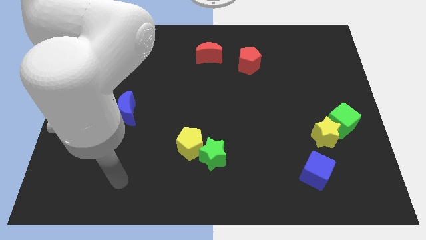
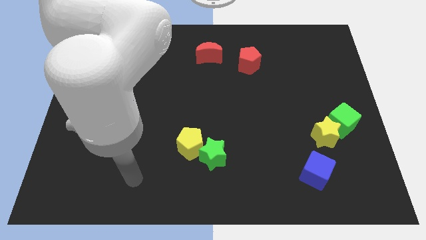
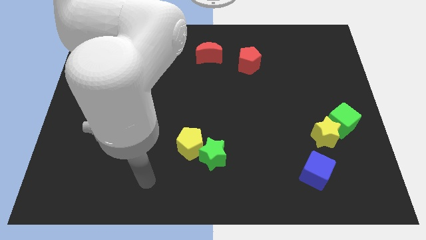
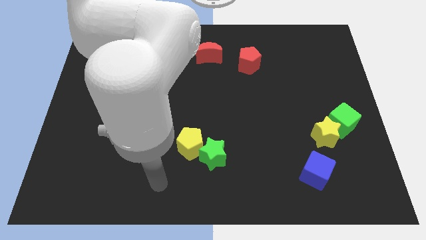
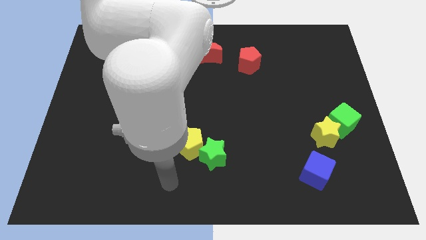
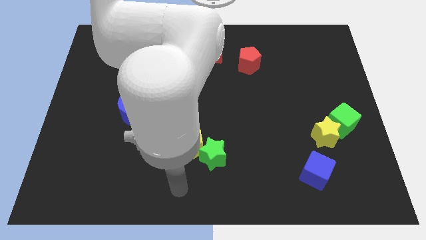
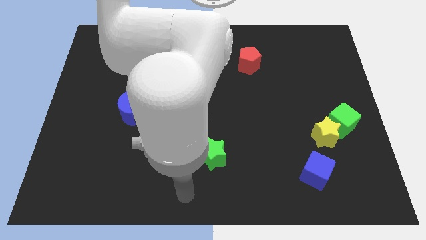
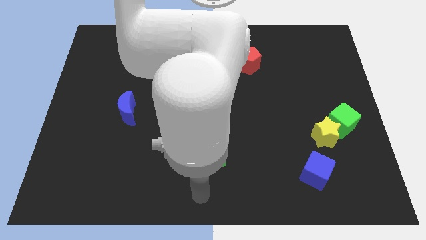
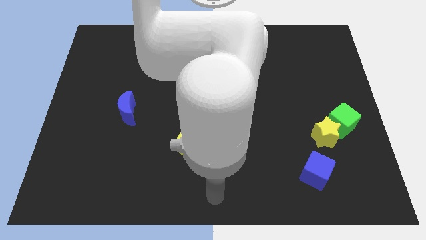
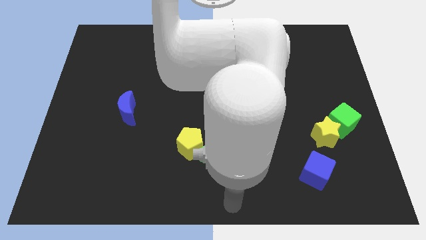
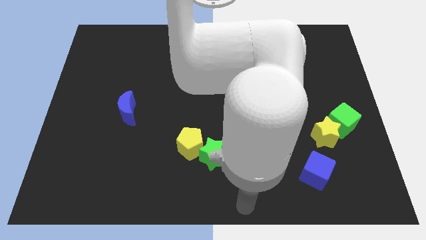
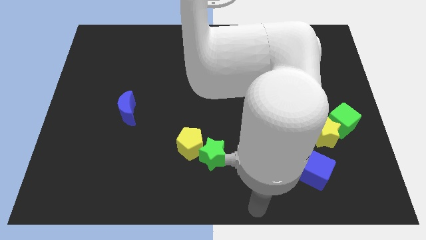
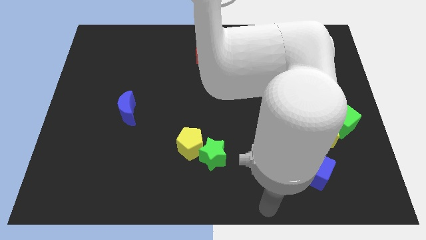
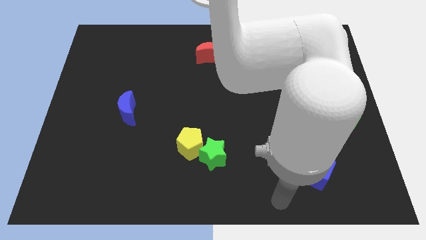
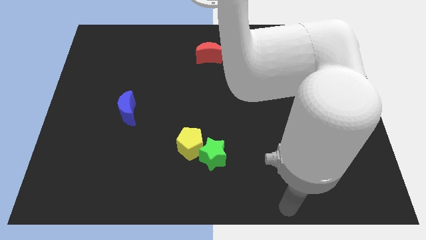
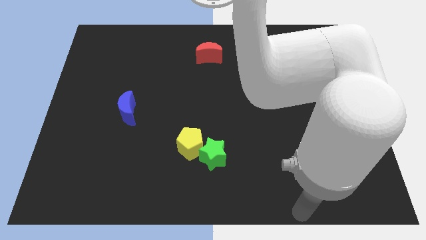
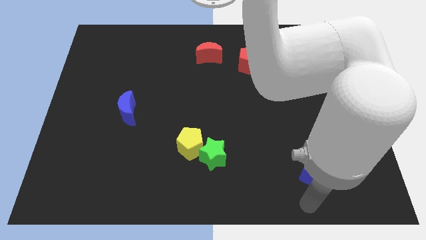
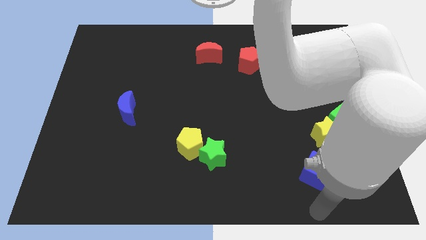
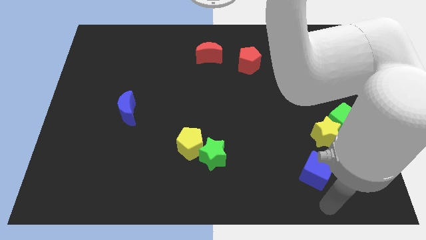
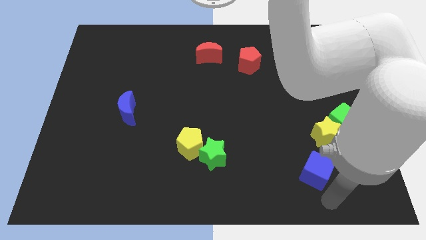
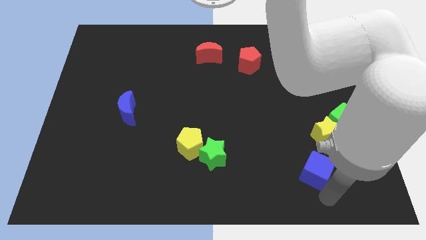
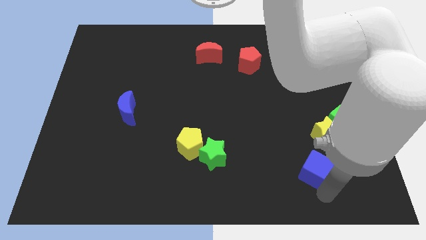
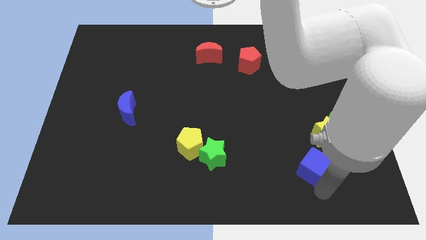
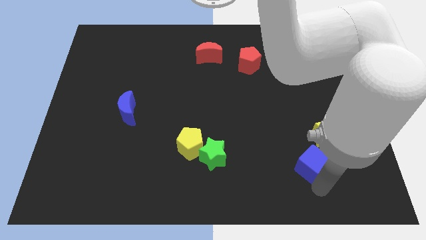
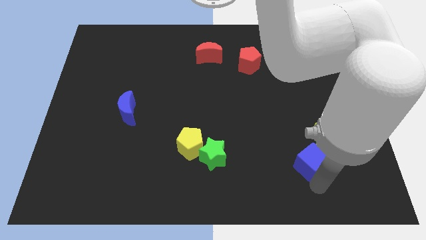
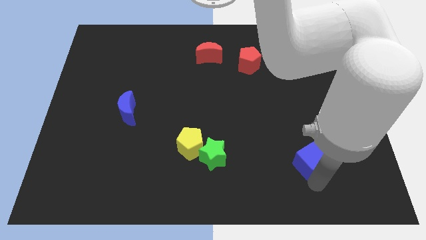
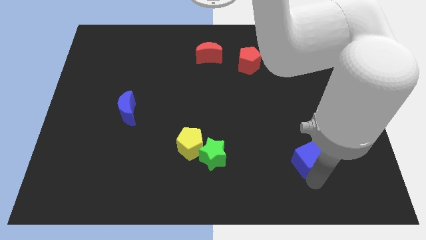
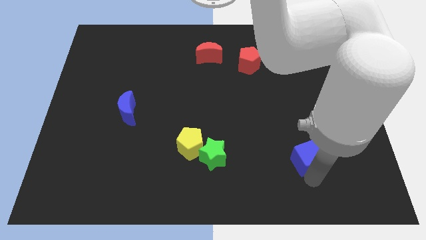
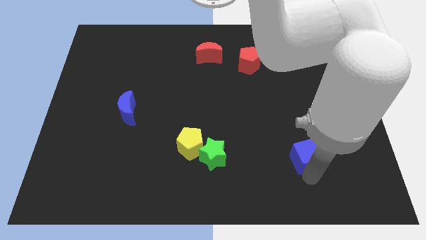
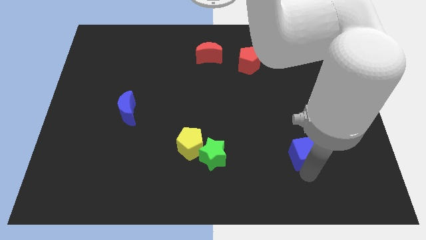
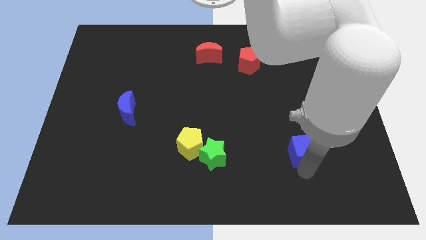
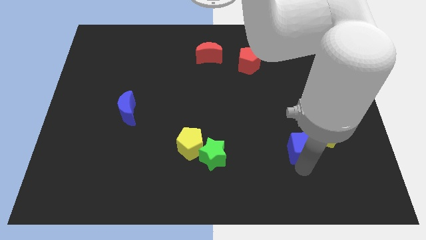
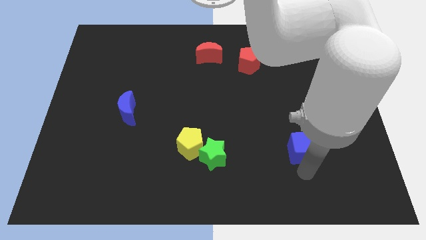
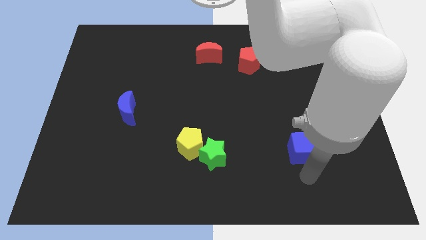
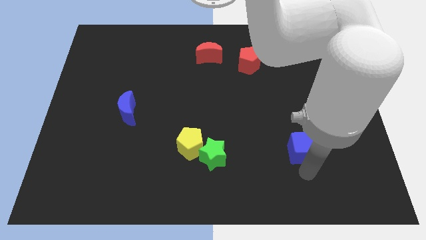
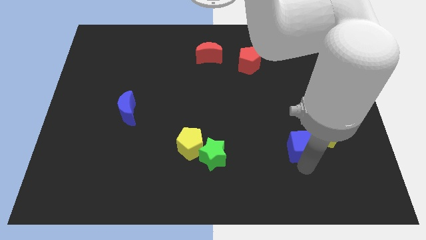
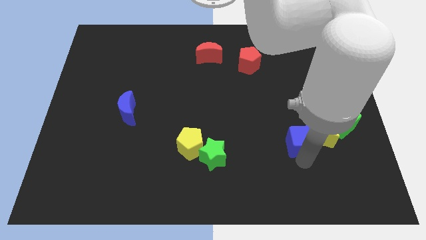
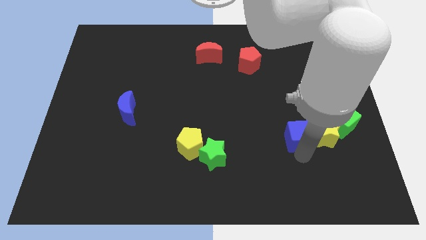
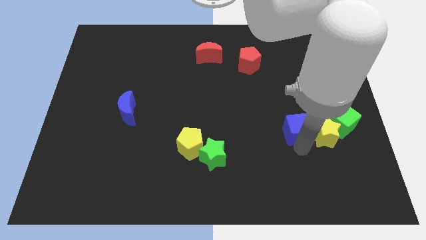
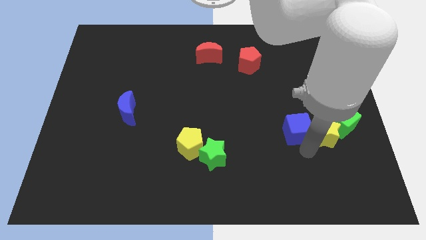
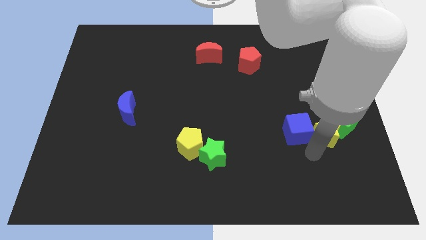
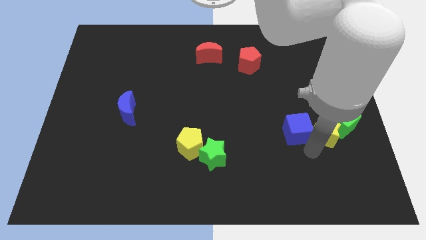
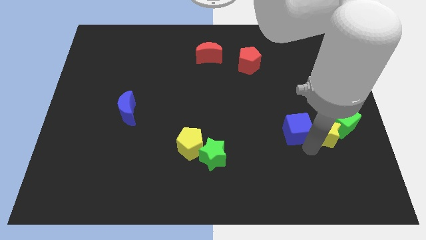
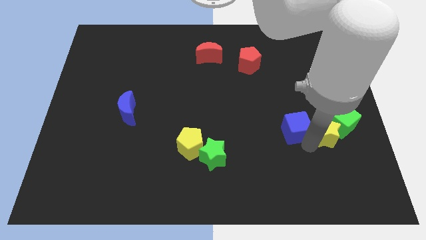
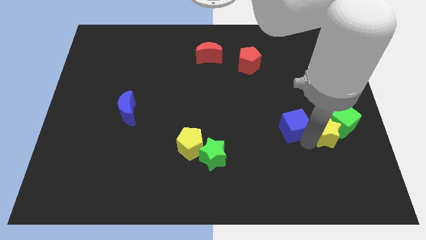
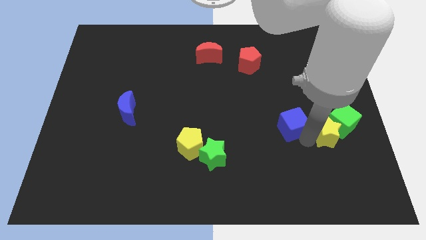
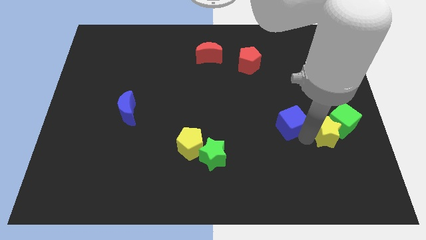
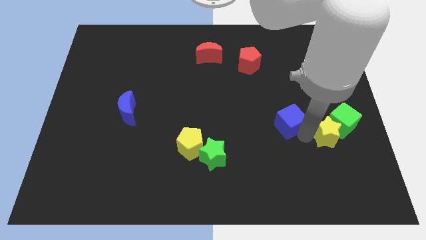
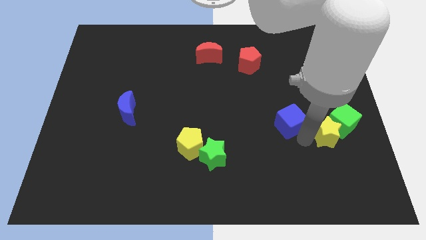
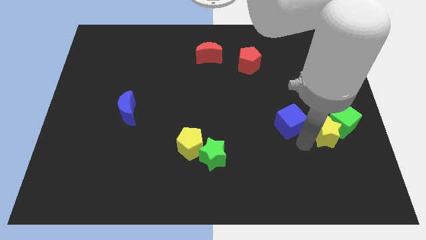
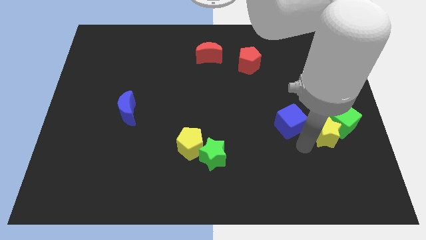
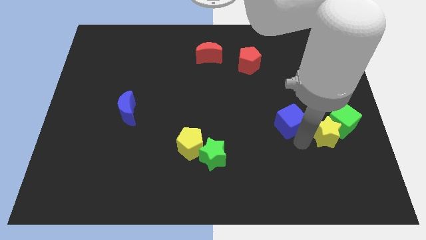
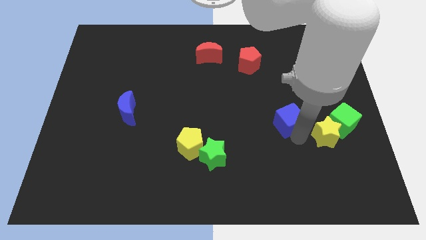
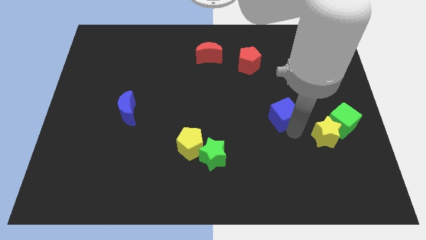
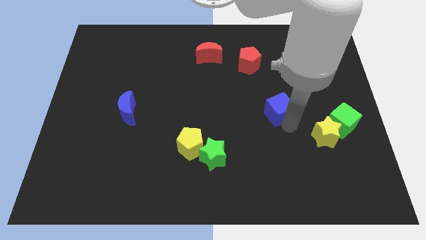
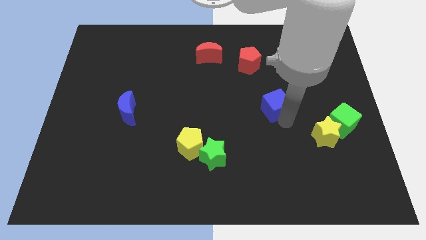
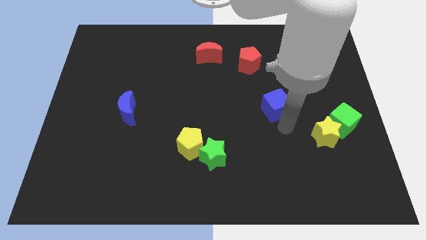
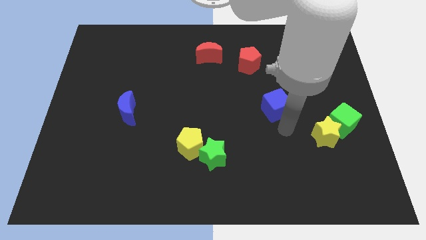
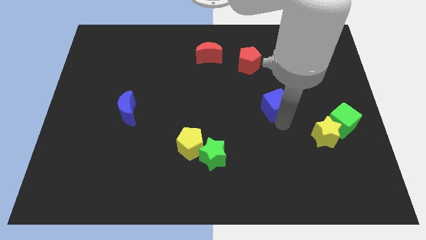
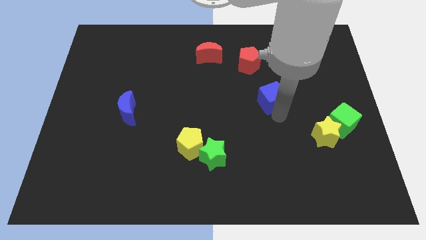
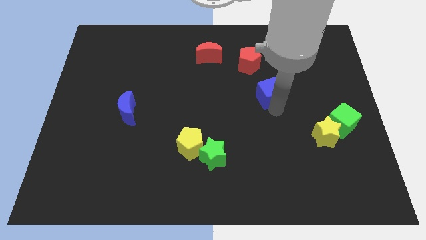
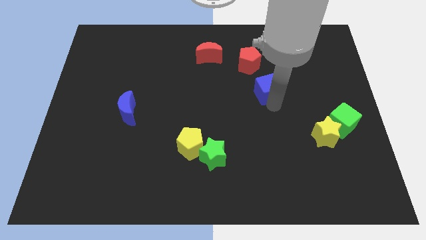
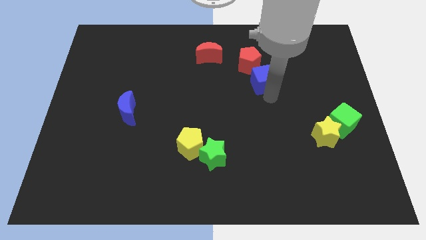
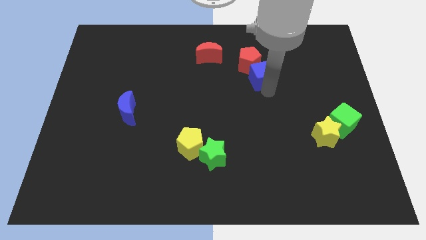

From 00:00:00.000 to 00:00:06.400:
move the blue cube close to the red pentagon
